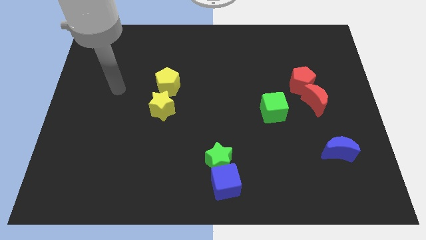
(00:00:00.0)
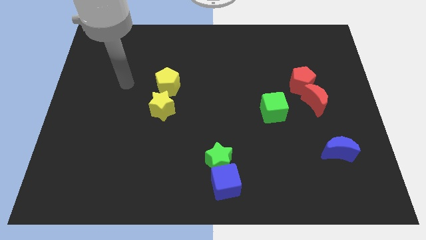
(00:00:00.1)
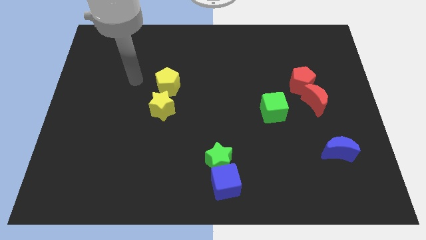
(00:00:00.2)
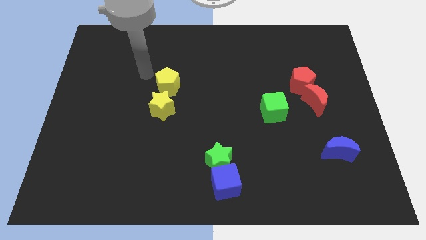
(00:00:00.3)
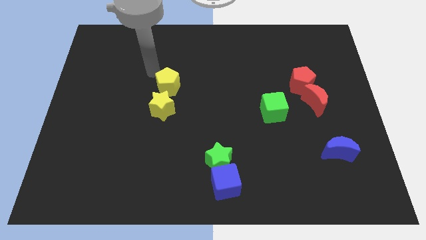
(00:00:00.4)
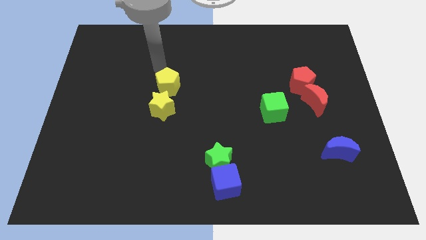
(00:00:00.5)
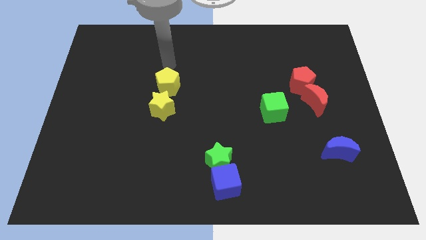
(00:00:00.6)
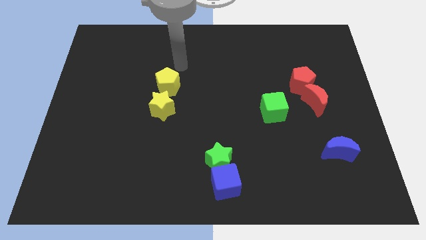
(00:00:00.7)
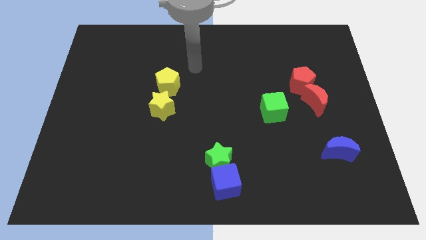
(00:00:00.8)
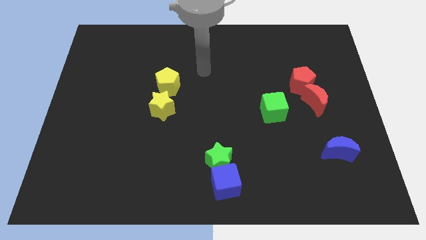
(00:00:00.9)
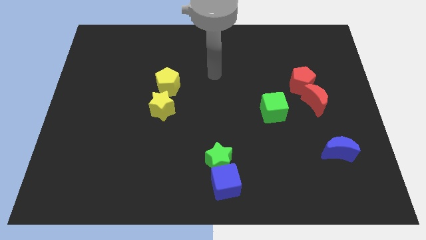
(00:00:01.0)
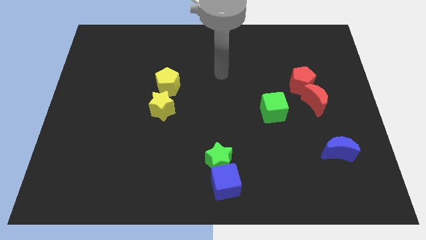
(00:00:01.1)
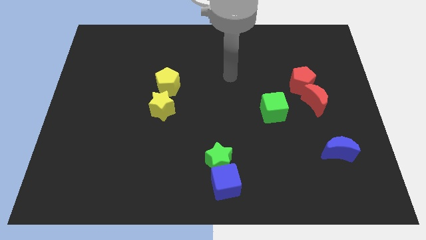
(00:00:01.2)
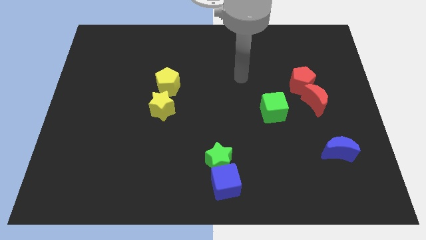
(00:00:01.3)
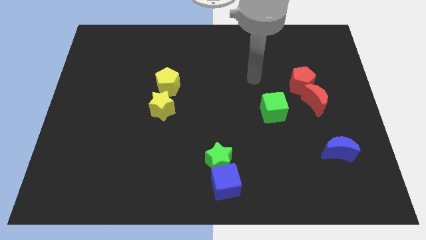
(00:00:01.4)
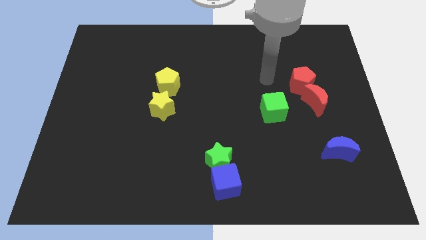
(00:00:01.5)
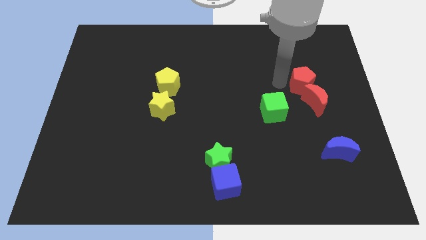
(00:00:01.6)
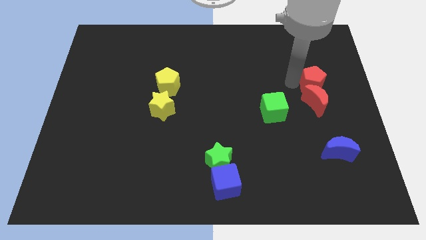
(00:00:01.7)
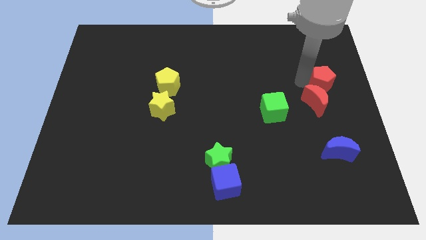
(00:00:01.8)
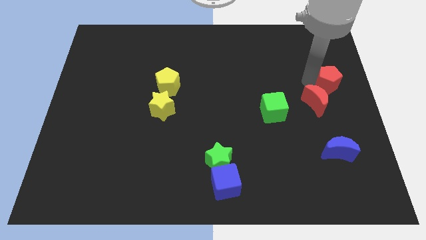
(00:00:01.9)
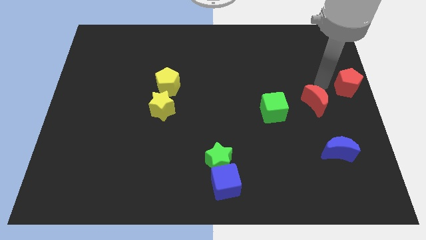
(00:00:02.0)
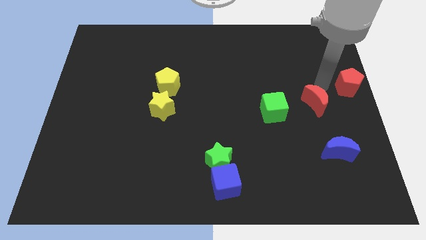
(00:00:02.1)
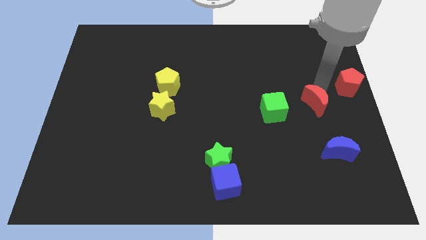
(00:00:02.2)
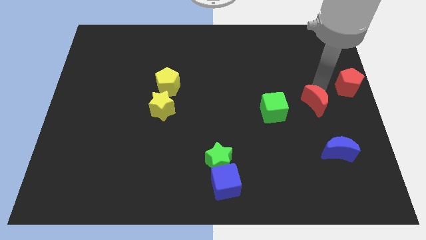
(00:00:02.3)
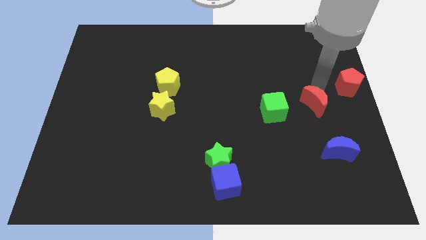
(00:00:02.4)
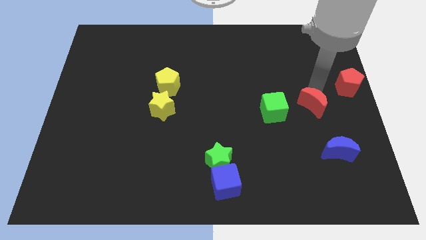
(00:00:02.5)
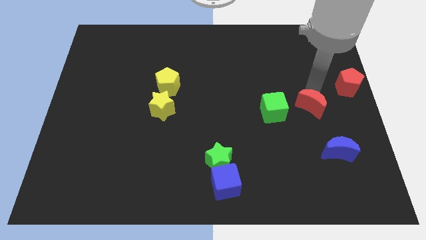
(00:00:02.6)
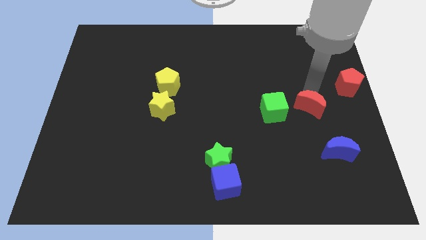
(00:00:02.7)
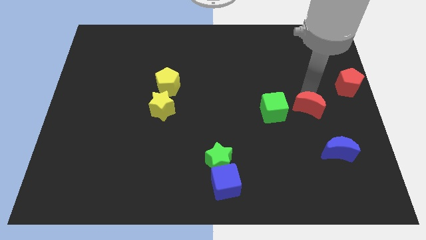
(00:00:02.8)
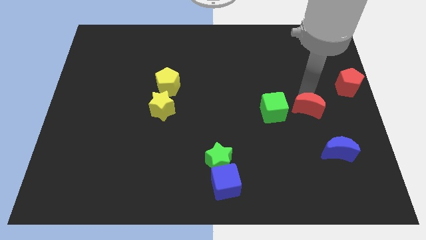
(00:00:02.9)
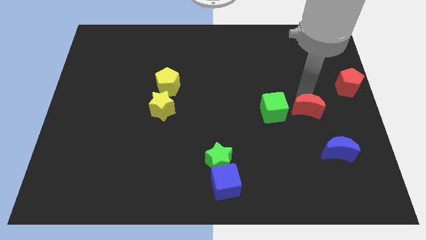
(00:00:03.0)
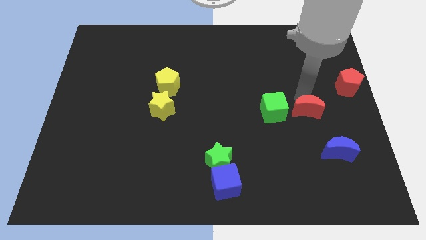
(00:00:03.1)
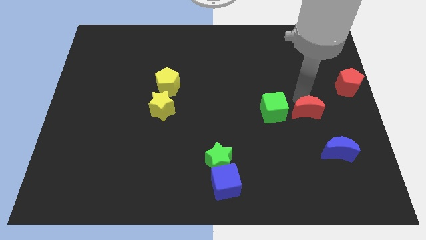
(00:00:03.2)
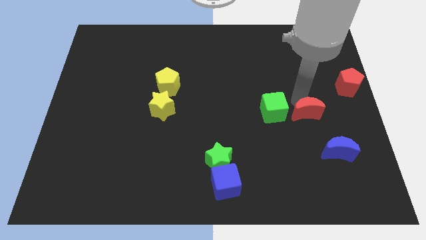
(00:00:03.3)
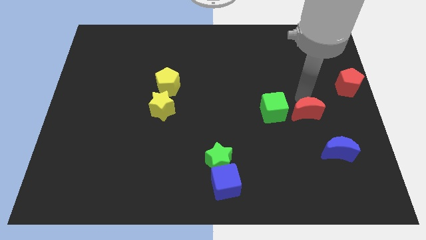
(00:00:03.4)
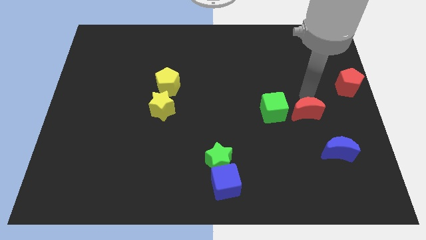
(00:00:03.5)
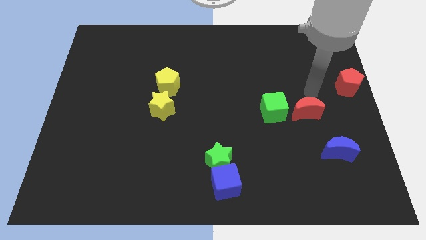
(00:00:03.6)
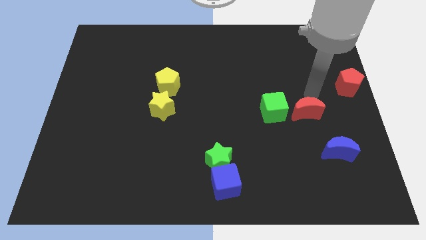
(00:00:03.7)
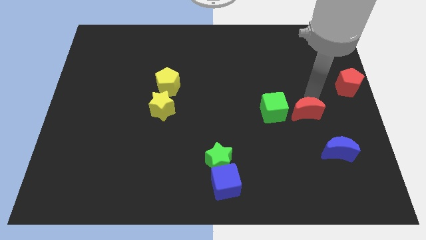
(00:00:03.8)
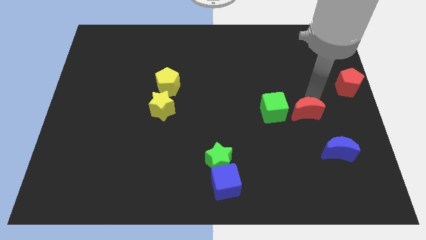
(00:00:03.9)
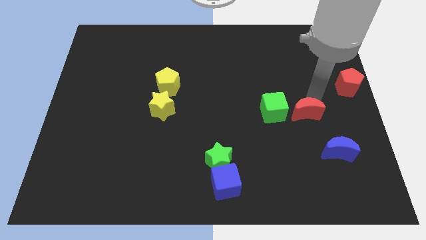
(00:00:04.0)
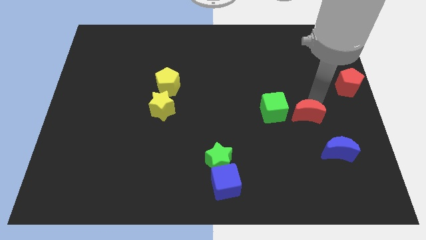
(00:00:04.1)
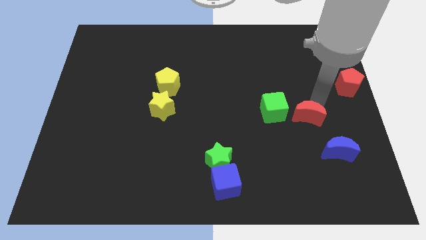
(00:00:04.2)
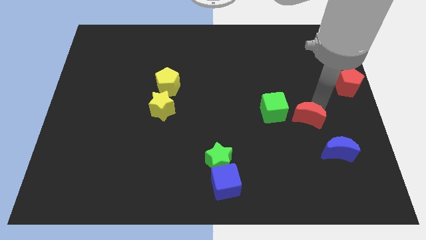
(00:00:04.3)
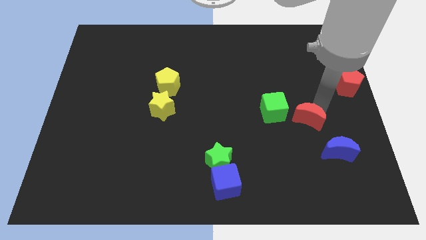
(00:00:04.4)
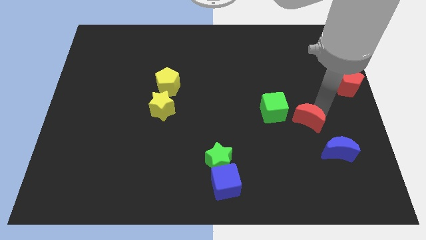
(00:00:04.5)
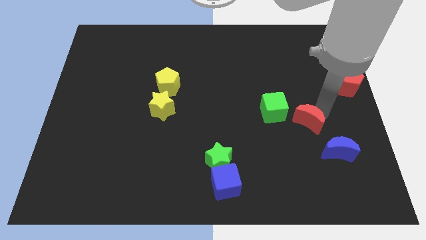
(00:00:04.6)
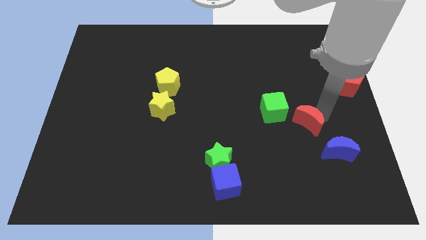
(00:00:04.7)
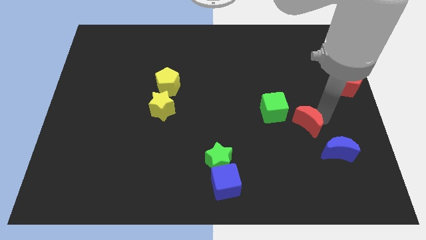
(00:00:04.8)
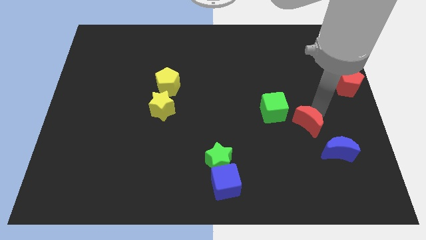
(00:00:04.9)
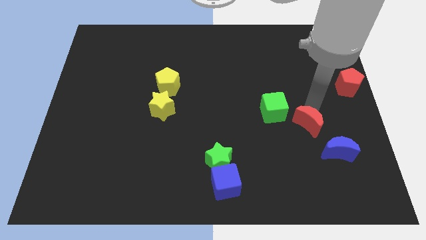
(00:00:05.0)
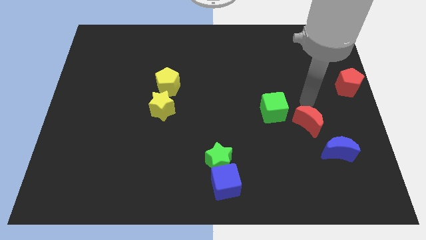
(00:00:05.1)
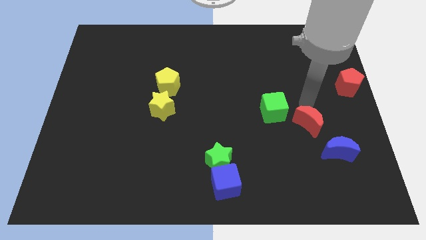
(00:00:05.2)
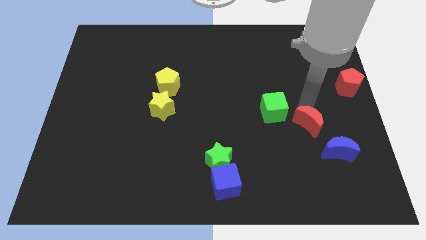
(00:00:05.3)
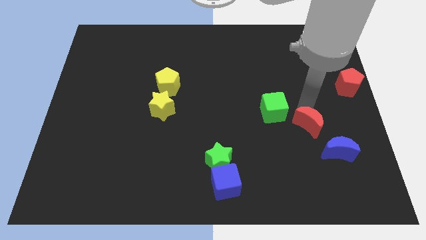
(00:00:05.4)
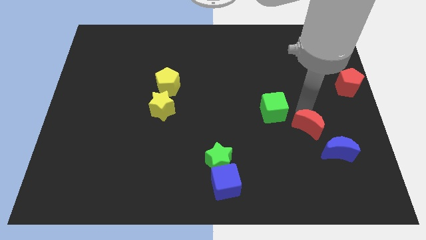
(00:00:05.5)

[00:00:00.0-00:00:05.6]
slide the red moon downwards slightly

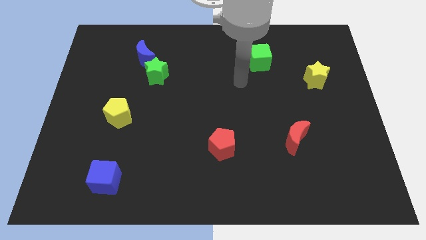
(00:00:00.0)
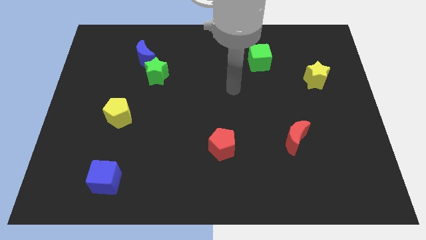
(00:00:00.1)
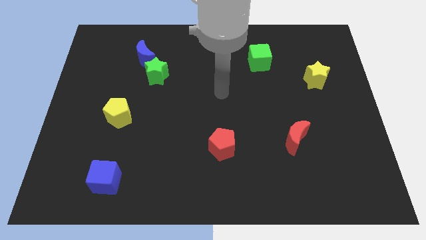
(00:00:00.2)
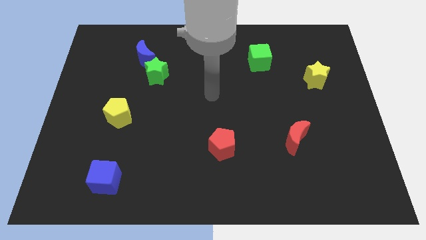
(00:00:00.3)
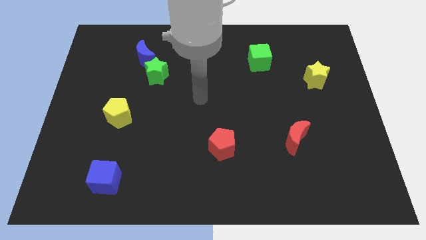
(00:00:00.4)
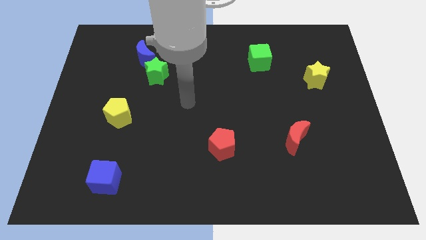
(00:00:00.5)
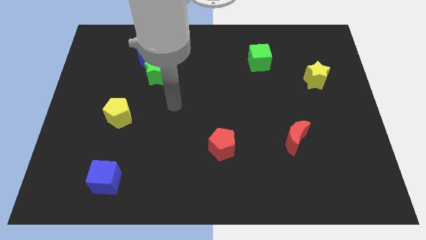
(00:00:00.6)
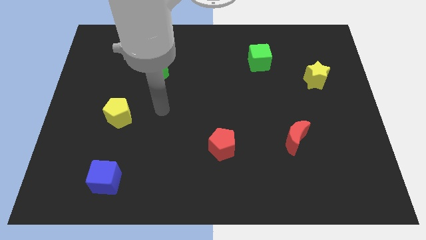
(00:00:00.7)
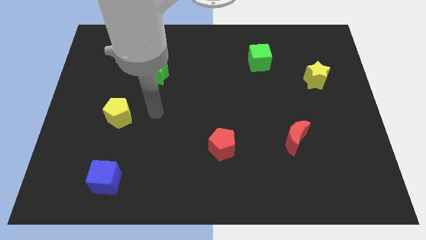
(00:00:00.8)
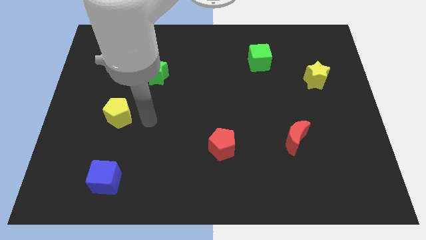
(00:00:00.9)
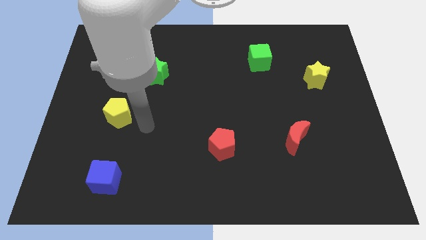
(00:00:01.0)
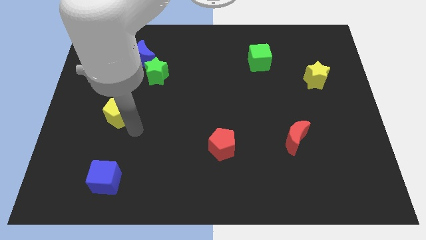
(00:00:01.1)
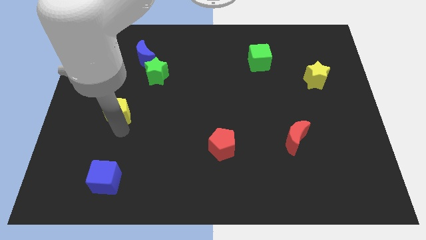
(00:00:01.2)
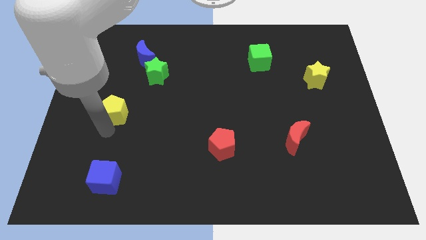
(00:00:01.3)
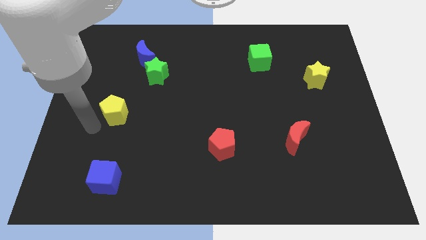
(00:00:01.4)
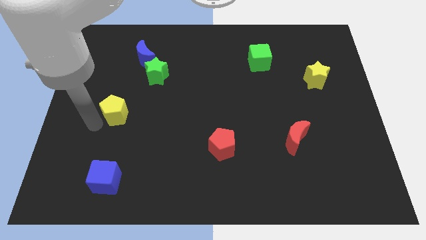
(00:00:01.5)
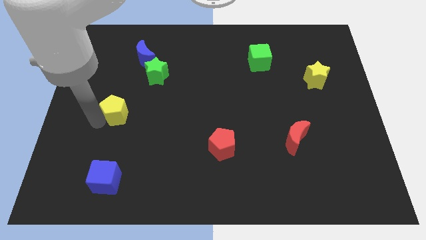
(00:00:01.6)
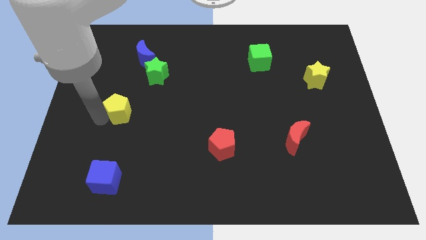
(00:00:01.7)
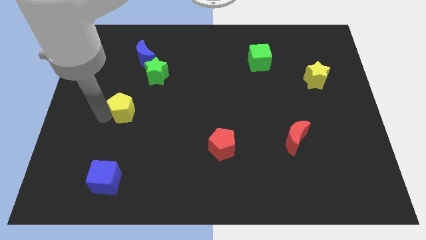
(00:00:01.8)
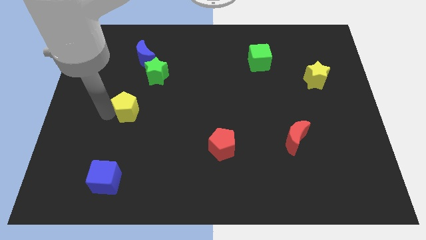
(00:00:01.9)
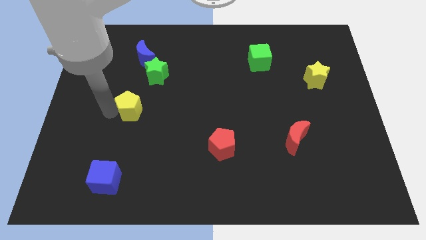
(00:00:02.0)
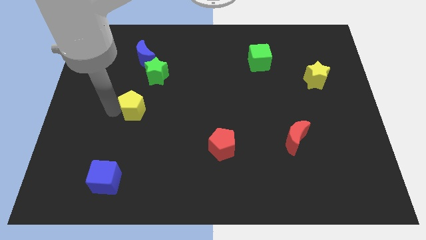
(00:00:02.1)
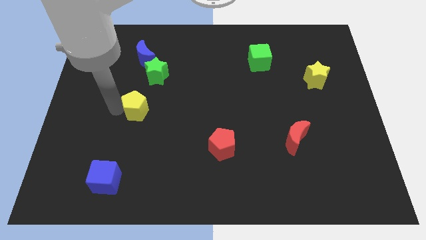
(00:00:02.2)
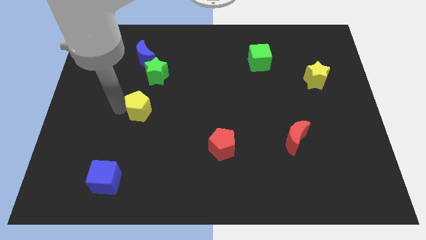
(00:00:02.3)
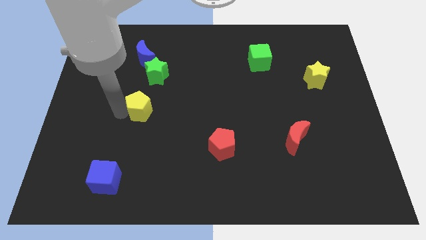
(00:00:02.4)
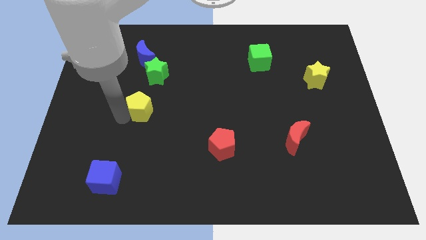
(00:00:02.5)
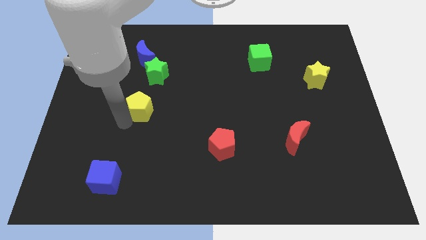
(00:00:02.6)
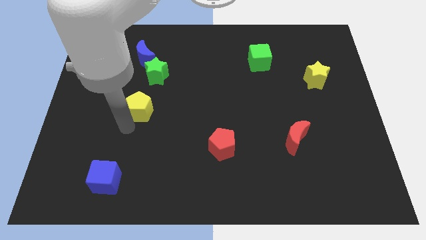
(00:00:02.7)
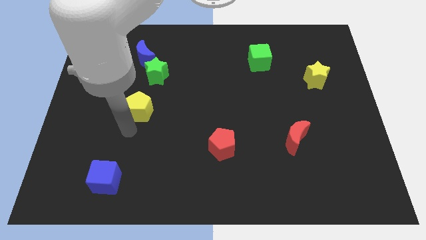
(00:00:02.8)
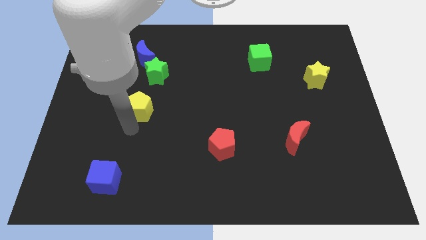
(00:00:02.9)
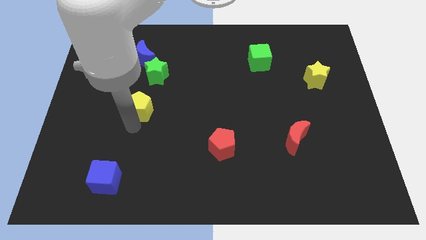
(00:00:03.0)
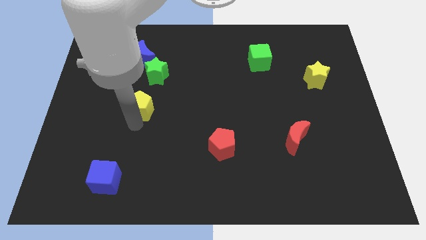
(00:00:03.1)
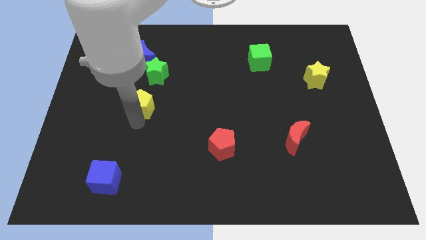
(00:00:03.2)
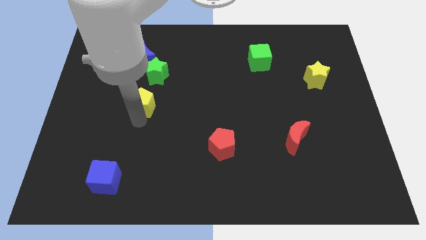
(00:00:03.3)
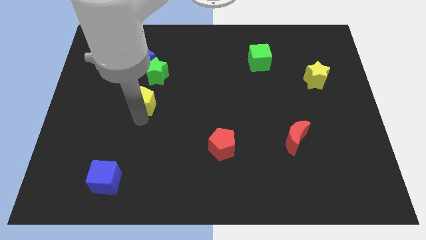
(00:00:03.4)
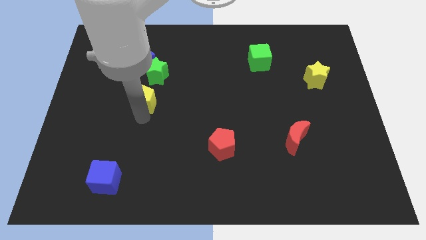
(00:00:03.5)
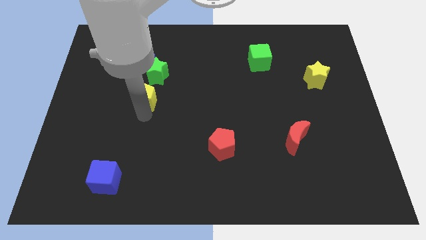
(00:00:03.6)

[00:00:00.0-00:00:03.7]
slightly push the yellow pentagon upwards and right
